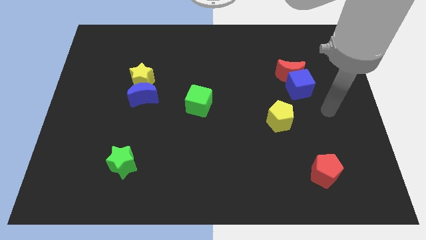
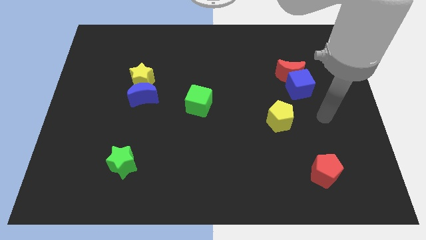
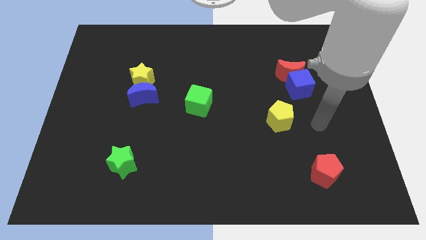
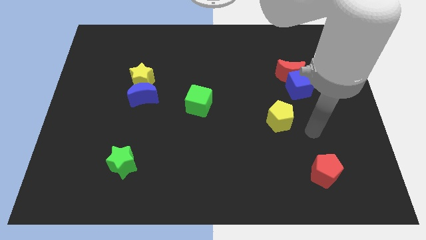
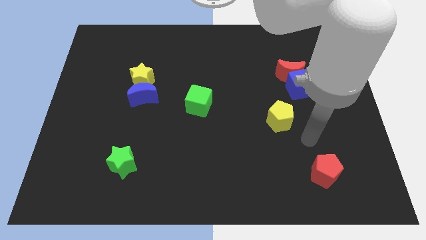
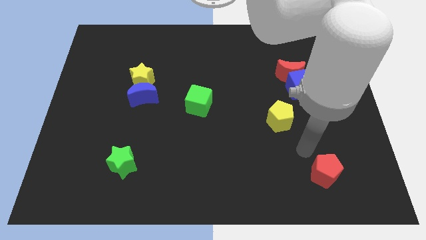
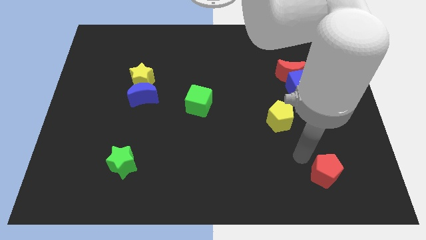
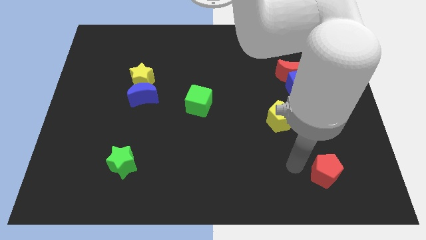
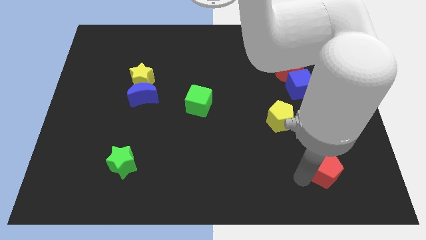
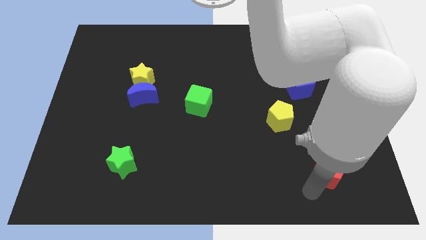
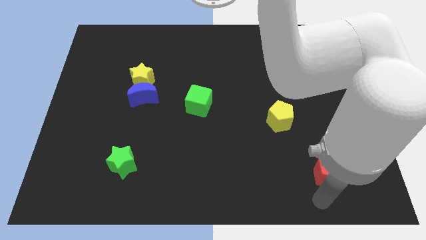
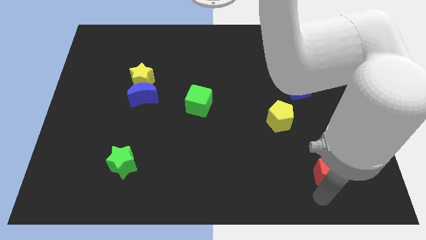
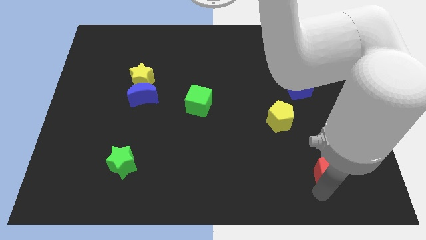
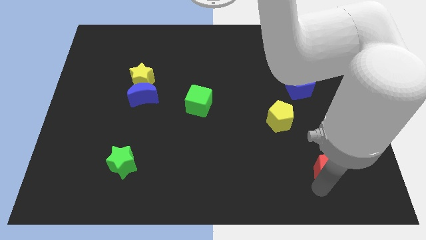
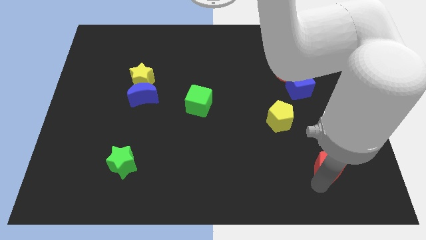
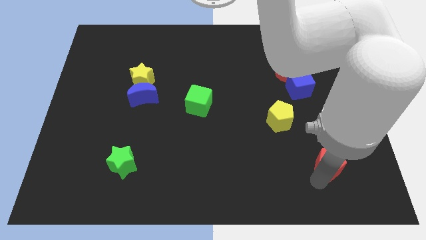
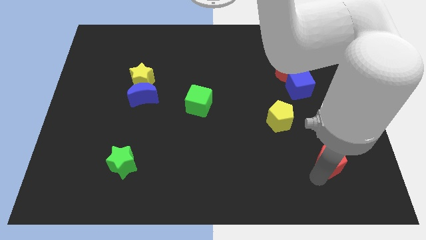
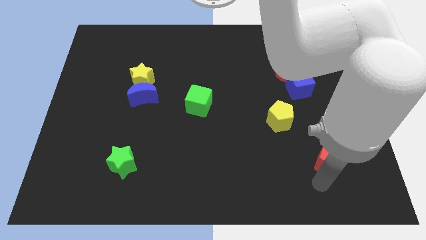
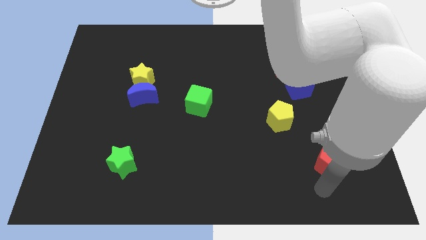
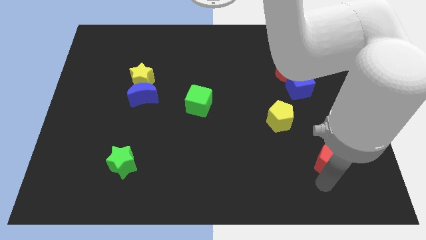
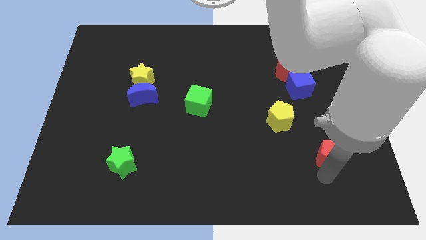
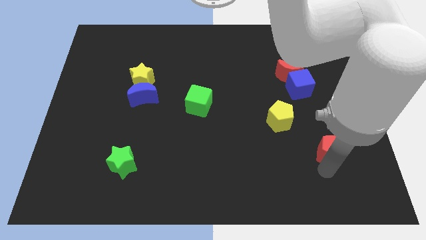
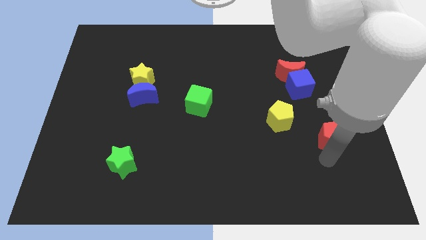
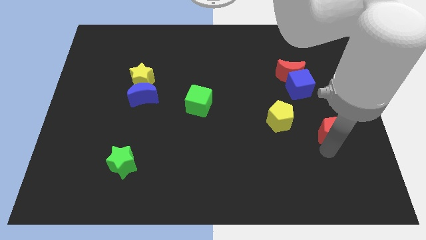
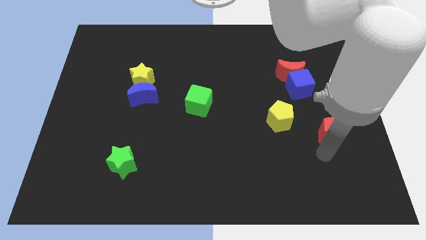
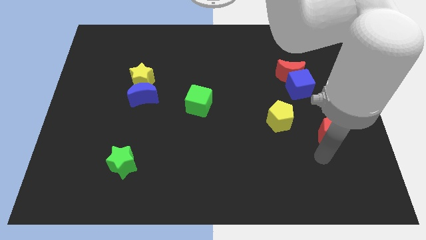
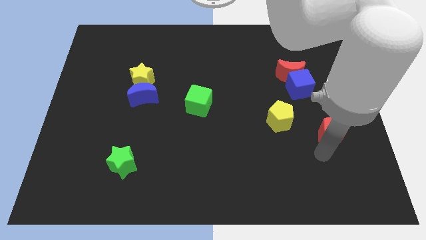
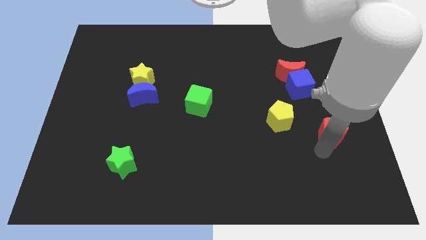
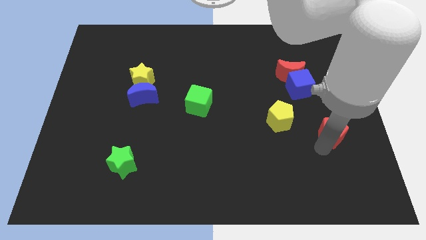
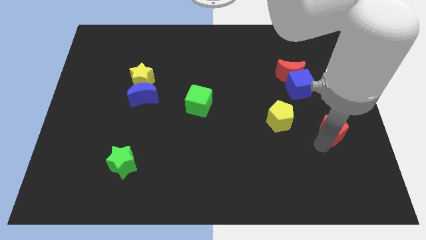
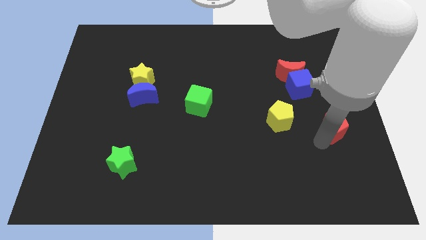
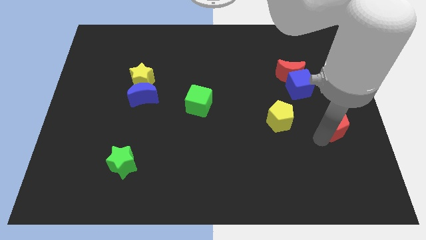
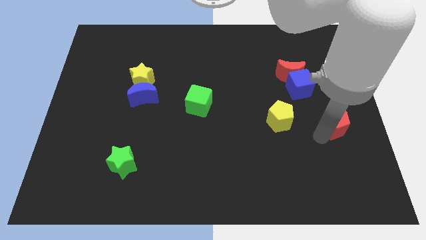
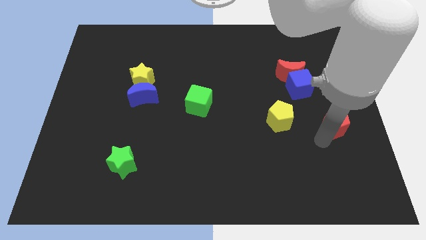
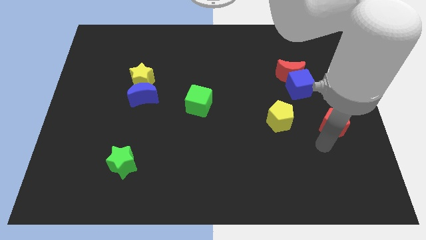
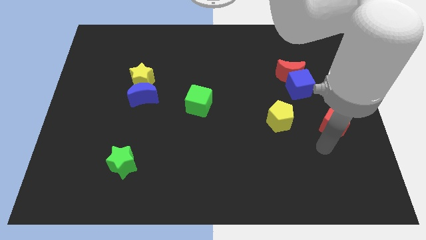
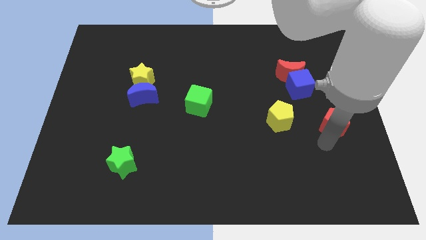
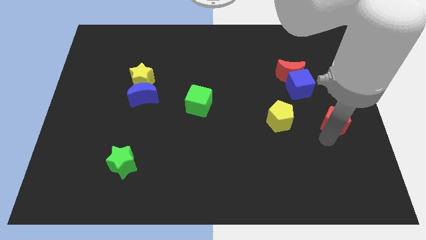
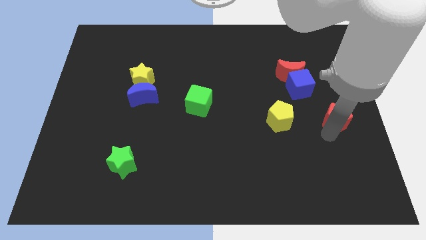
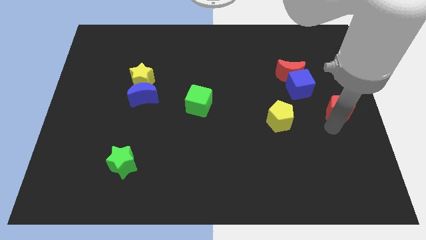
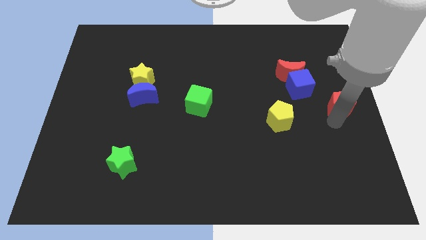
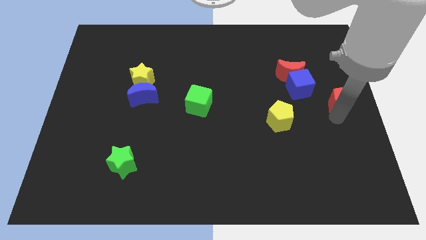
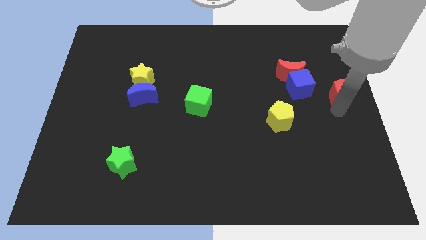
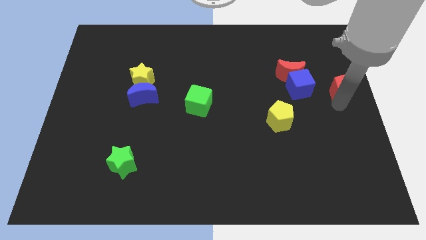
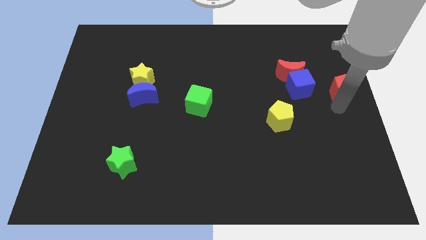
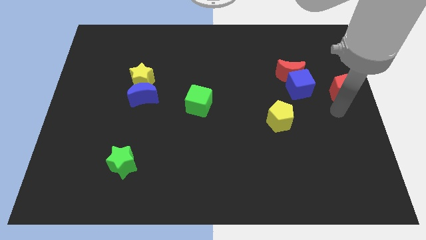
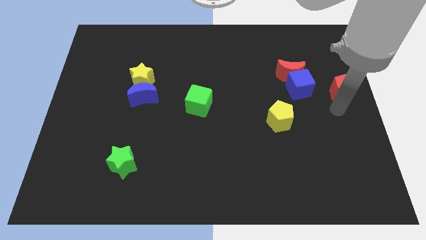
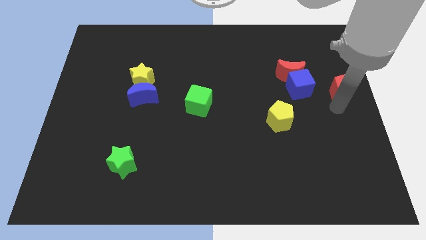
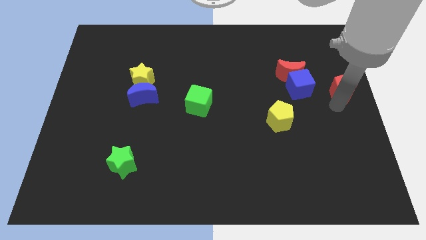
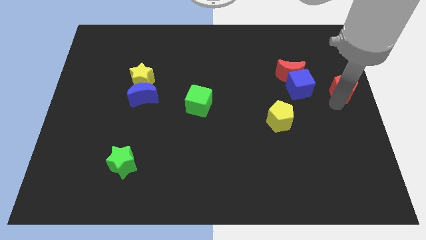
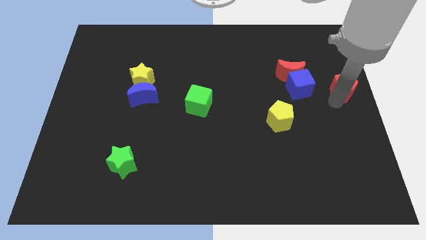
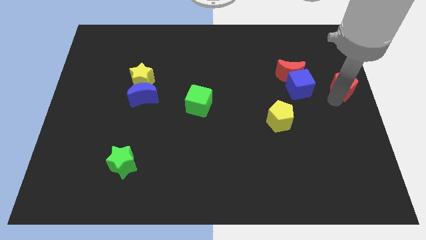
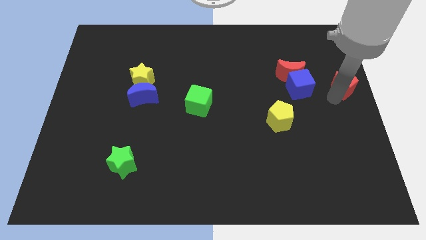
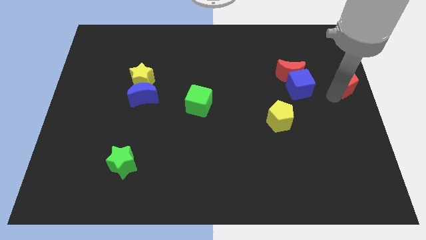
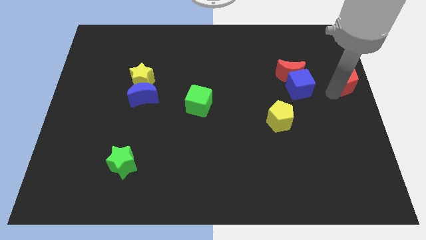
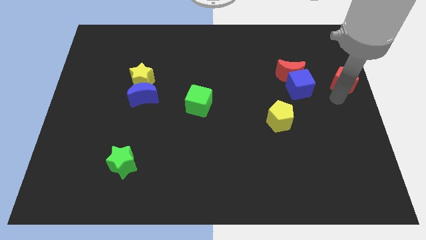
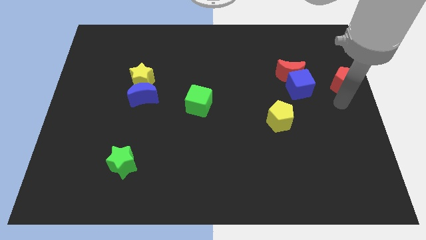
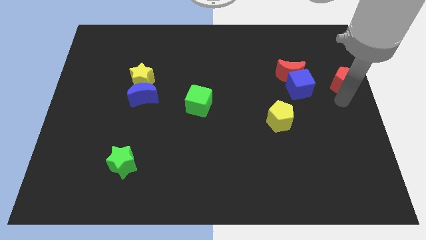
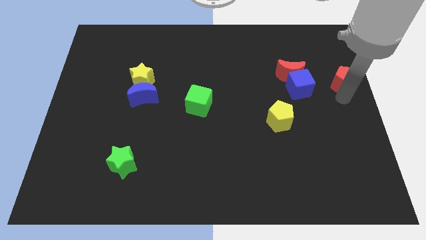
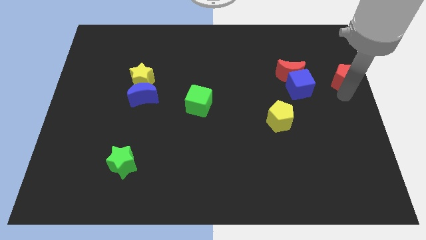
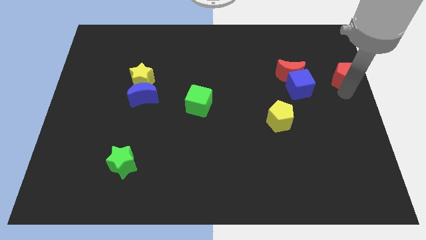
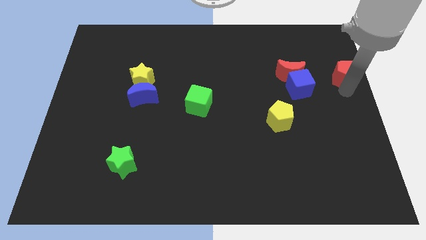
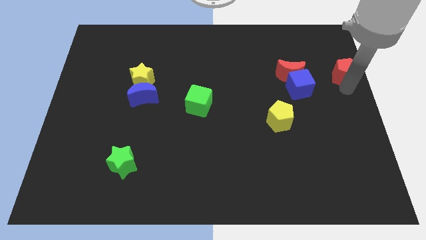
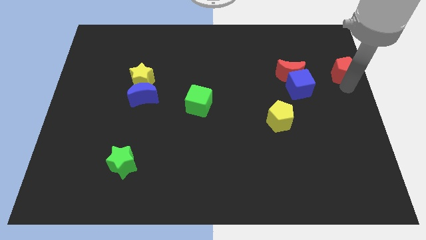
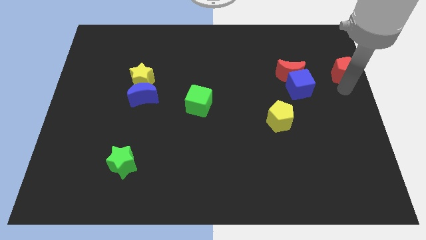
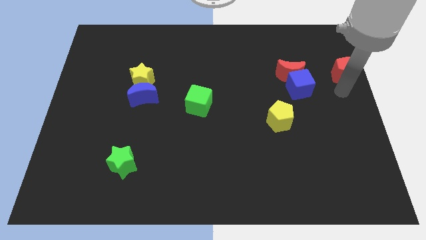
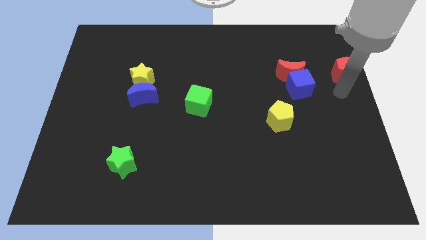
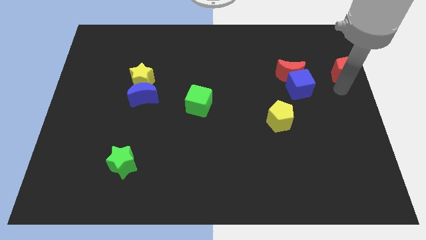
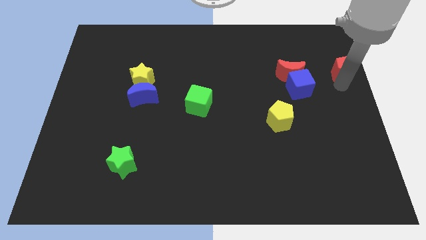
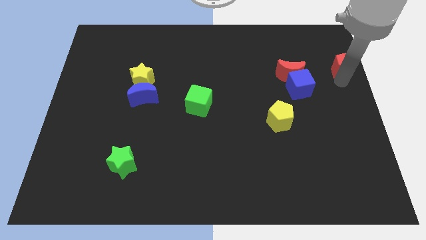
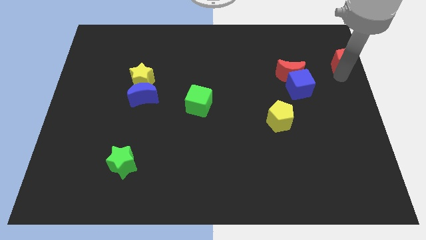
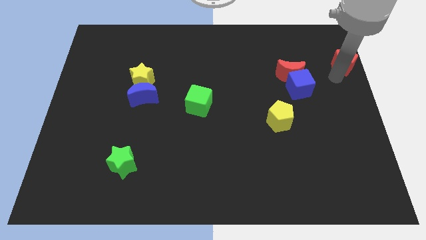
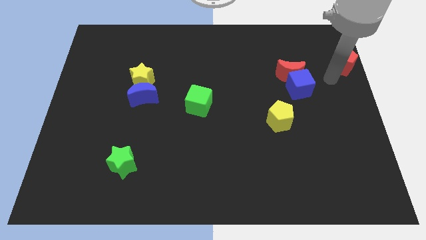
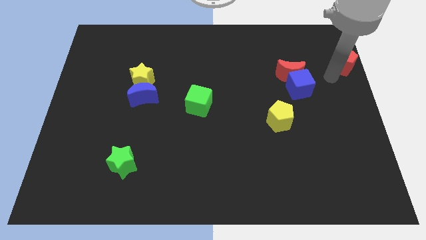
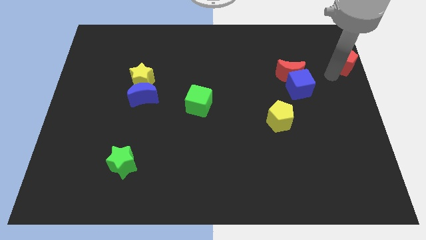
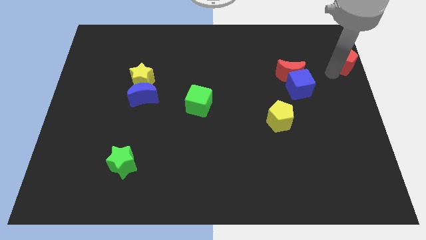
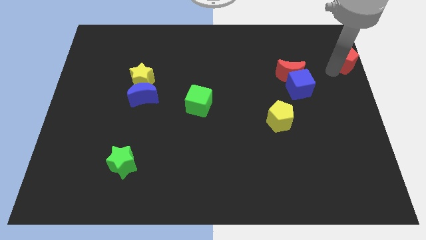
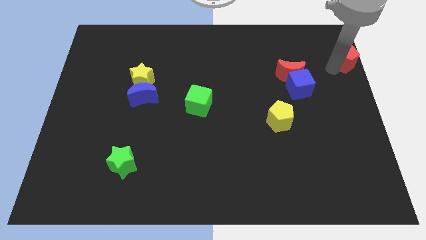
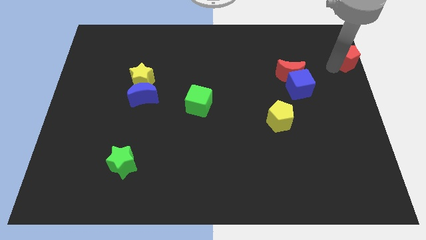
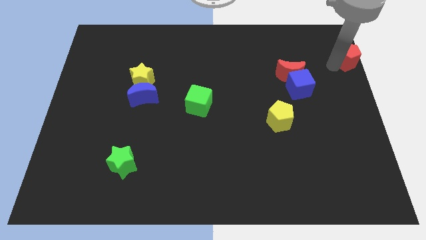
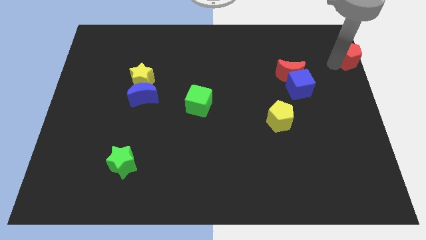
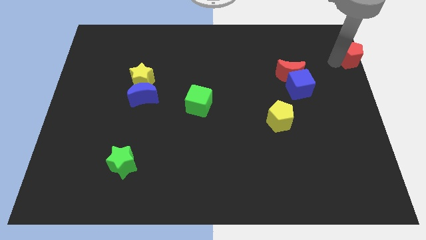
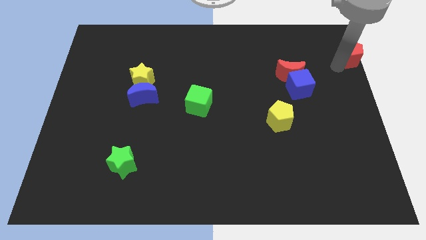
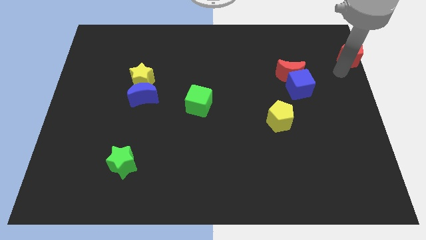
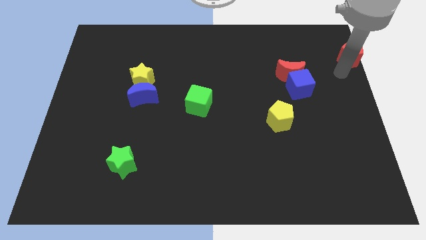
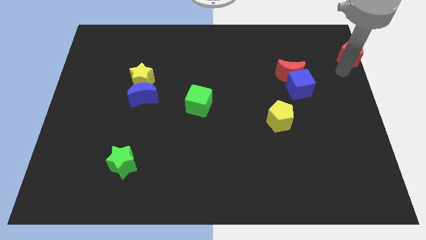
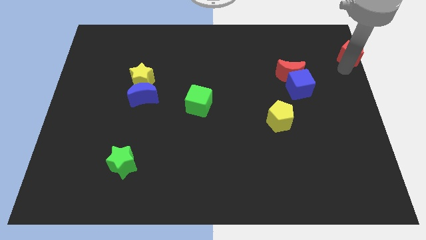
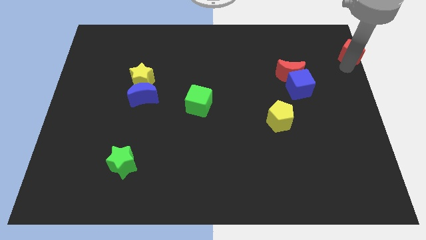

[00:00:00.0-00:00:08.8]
move the red pentagon to the top right of the board
